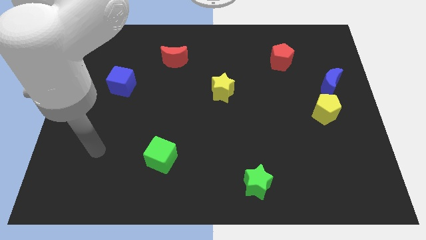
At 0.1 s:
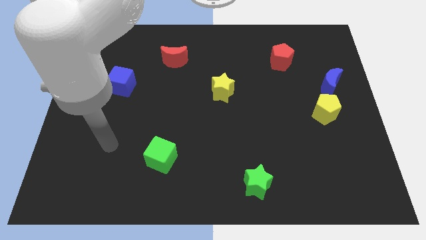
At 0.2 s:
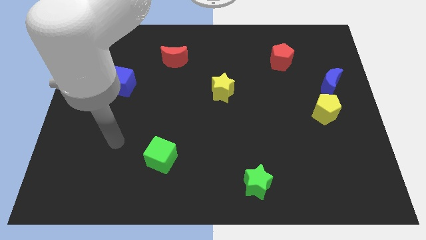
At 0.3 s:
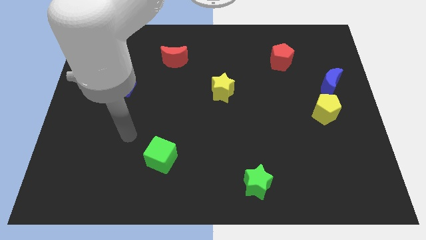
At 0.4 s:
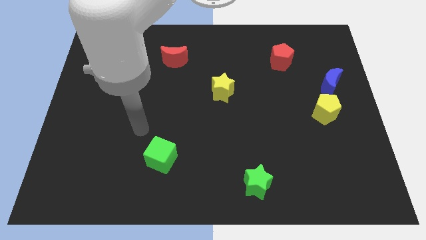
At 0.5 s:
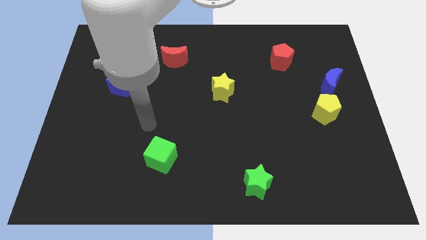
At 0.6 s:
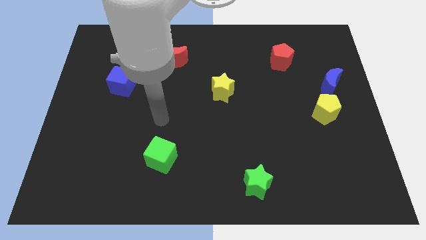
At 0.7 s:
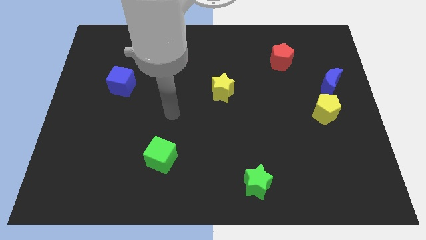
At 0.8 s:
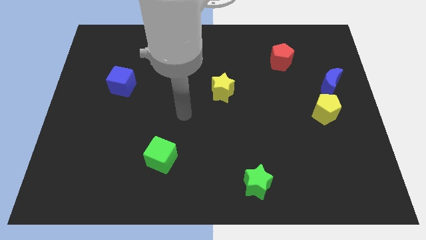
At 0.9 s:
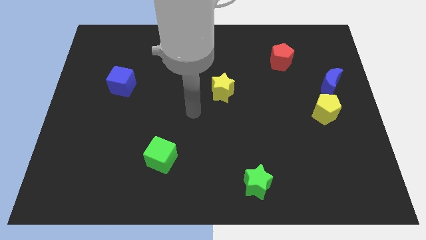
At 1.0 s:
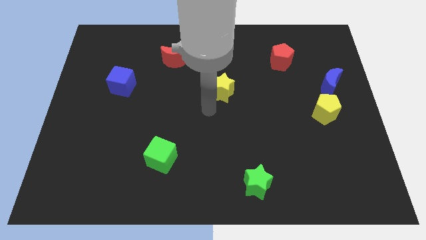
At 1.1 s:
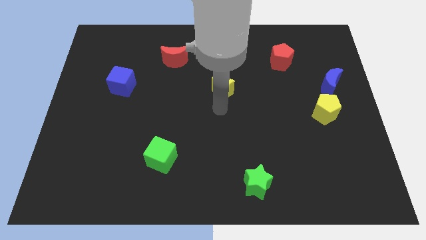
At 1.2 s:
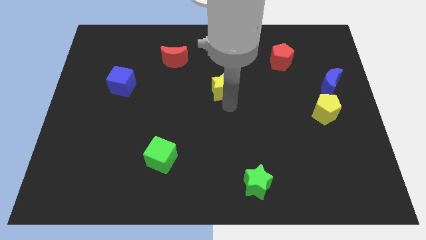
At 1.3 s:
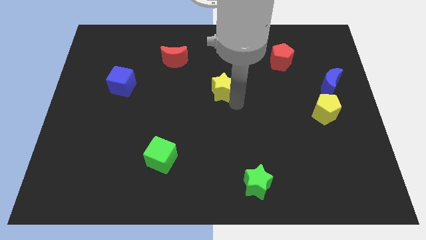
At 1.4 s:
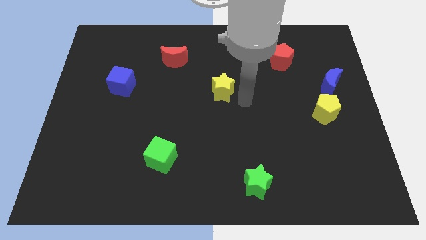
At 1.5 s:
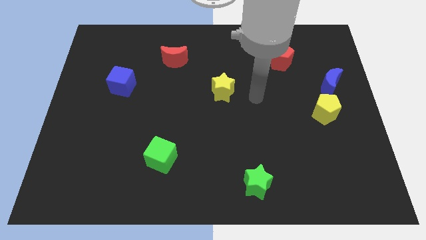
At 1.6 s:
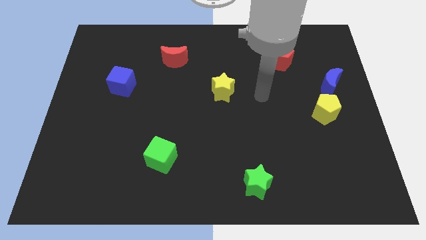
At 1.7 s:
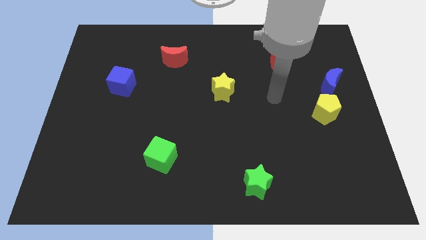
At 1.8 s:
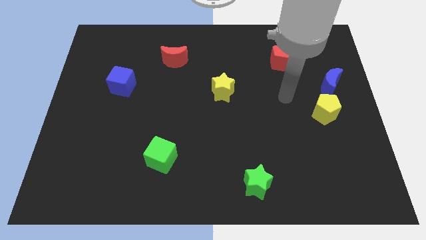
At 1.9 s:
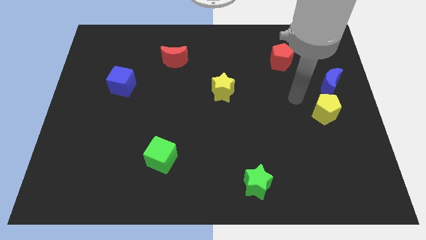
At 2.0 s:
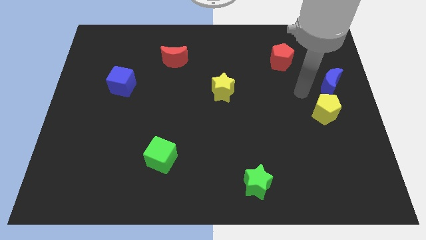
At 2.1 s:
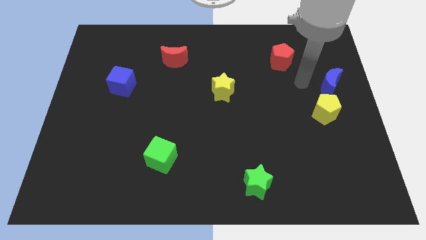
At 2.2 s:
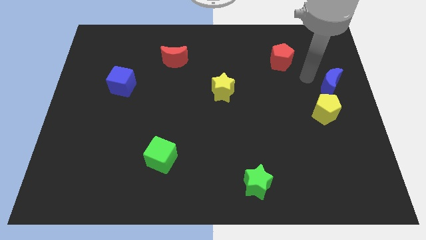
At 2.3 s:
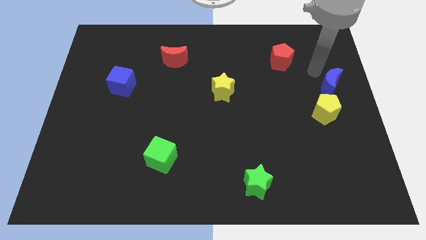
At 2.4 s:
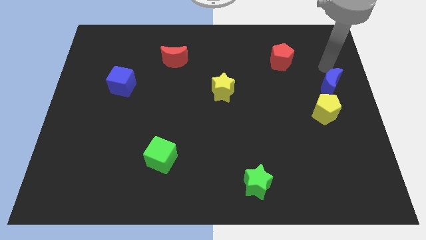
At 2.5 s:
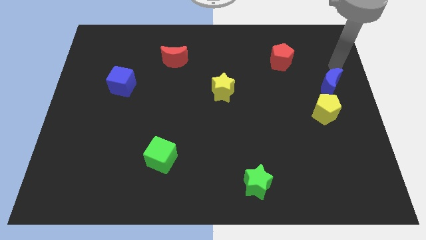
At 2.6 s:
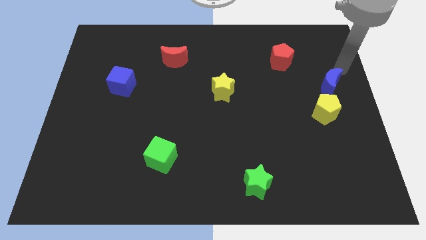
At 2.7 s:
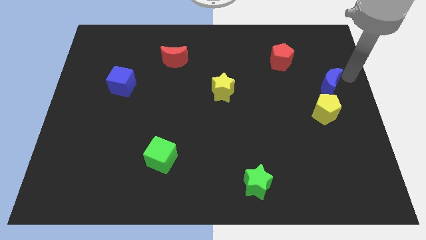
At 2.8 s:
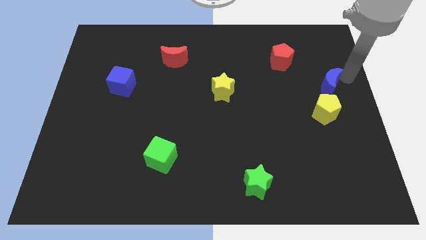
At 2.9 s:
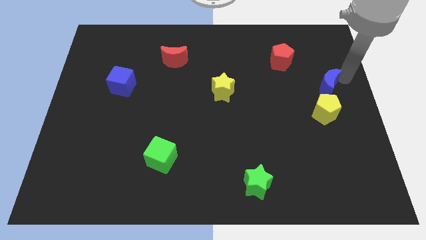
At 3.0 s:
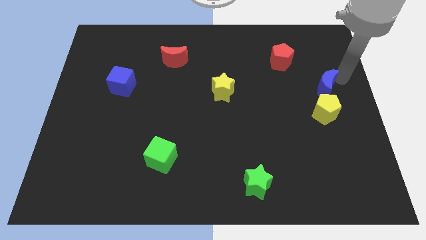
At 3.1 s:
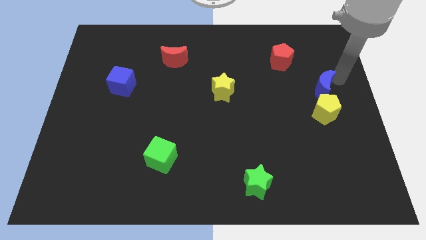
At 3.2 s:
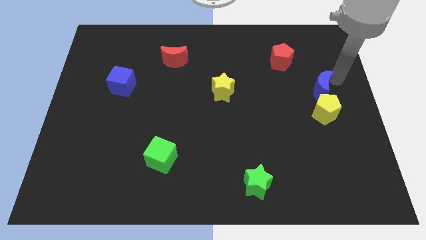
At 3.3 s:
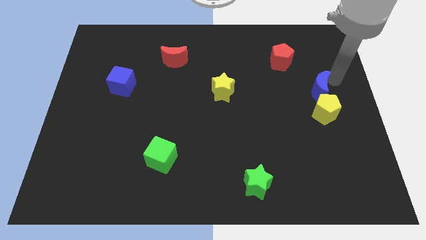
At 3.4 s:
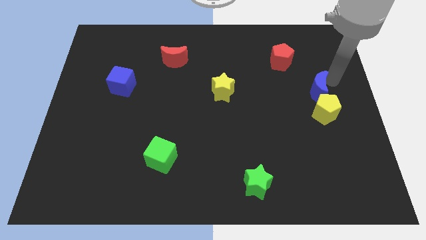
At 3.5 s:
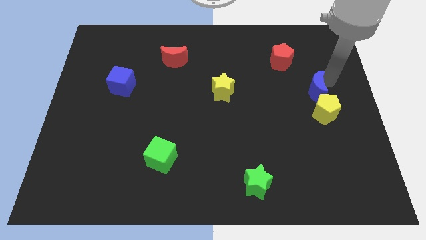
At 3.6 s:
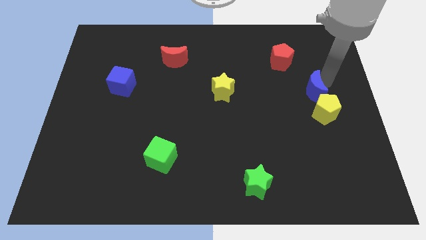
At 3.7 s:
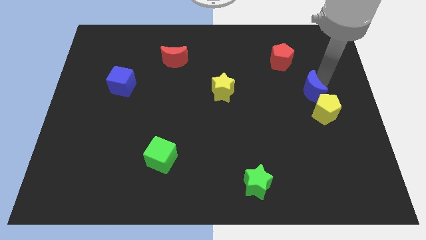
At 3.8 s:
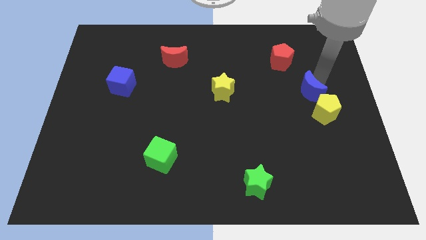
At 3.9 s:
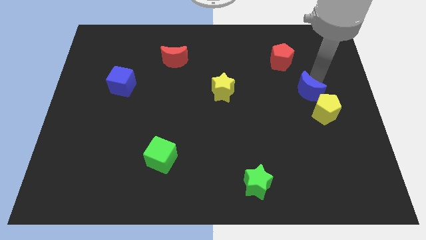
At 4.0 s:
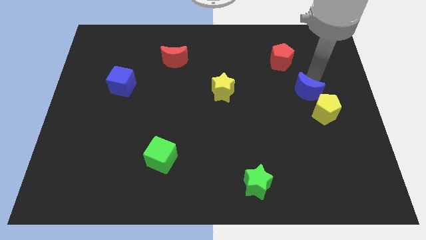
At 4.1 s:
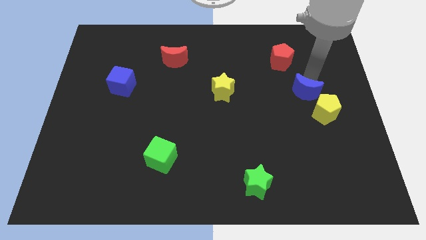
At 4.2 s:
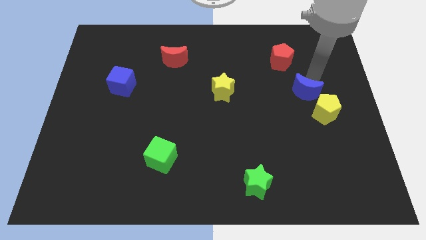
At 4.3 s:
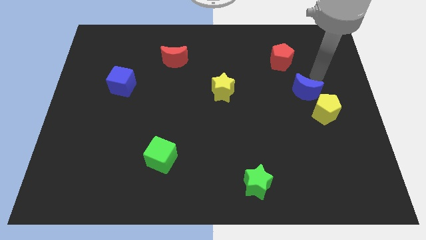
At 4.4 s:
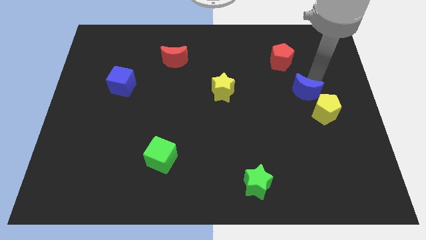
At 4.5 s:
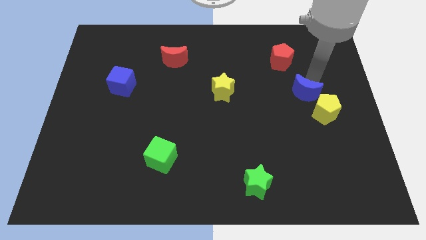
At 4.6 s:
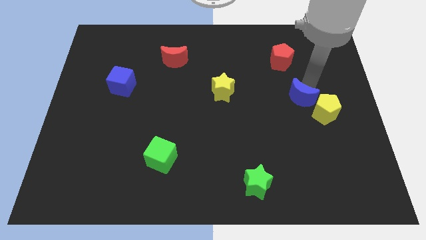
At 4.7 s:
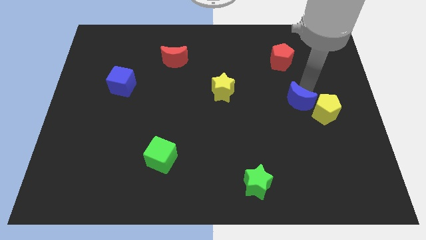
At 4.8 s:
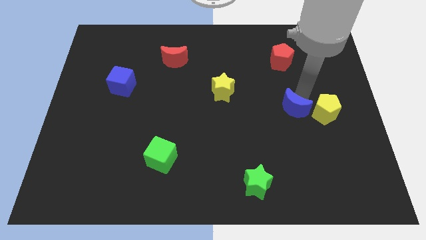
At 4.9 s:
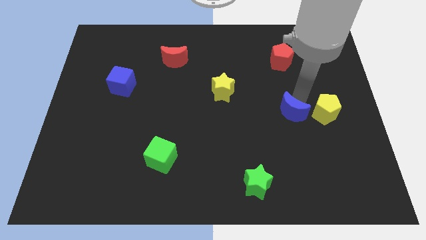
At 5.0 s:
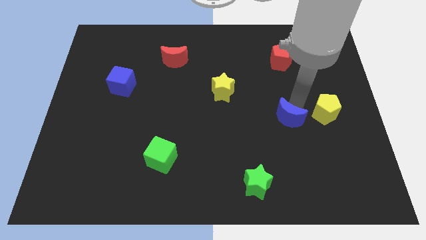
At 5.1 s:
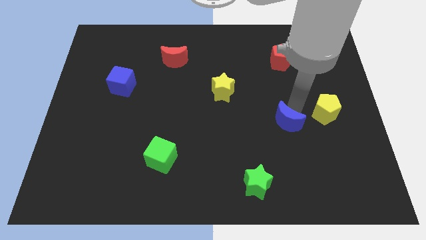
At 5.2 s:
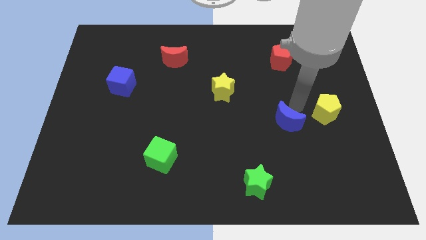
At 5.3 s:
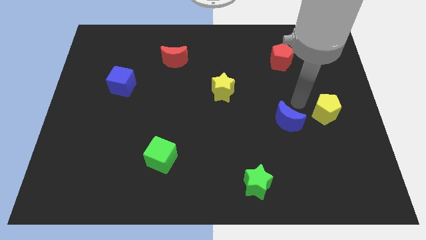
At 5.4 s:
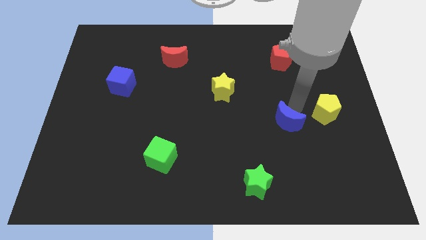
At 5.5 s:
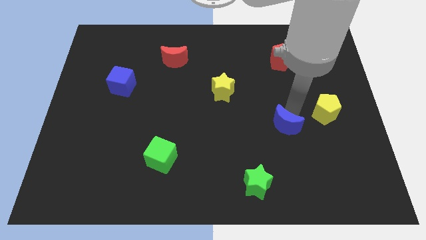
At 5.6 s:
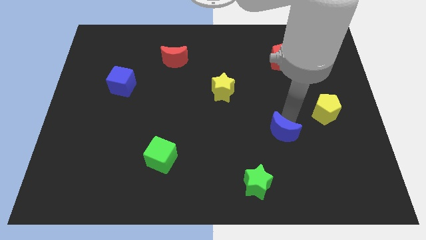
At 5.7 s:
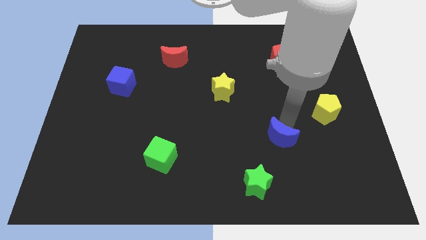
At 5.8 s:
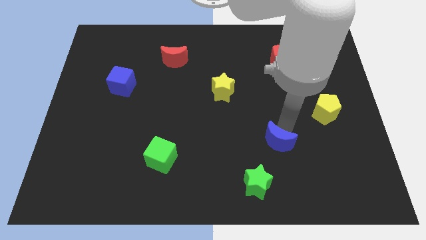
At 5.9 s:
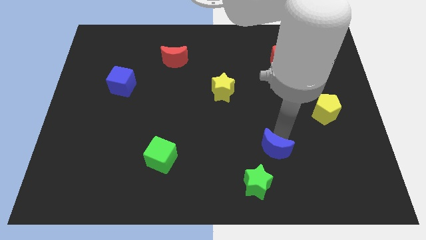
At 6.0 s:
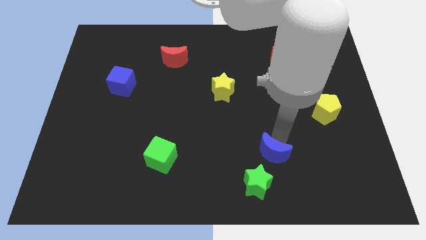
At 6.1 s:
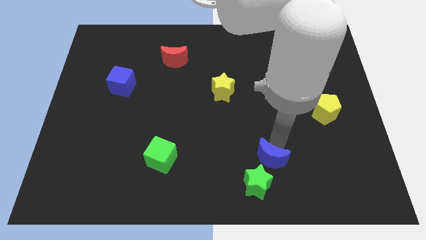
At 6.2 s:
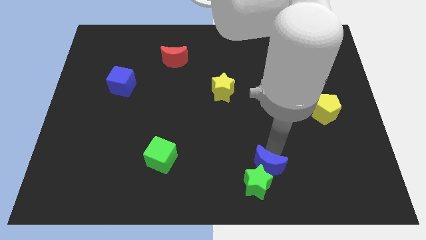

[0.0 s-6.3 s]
slide the blue moon to the green star
